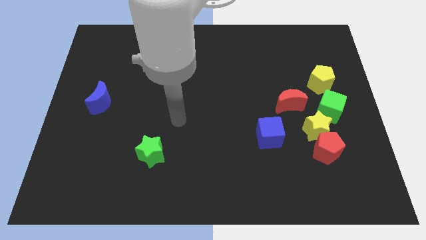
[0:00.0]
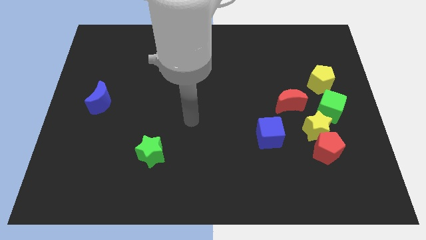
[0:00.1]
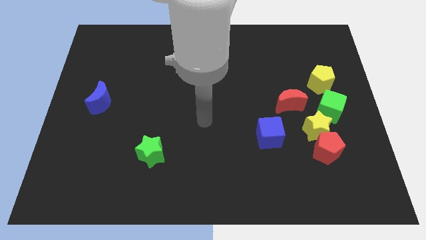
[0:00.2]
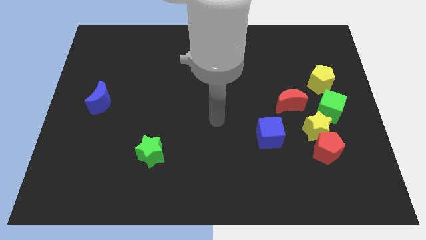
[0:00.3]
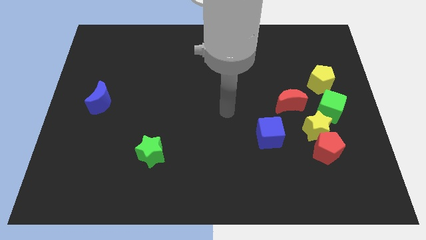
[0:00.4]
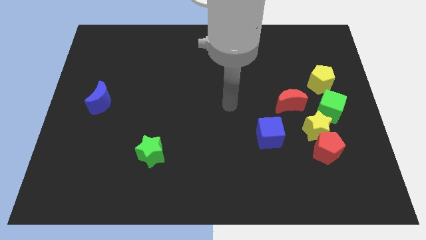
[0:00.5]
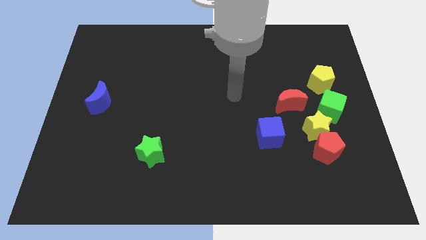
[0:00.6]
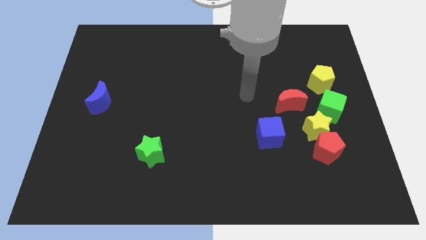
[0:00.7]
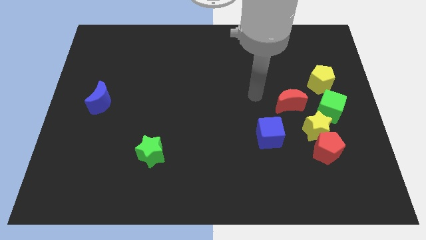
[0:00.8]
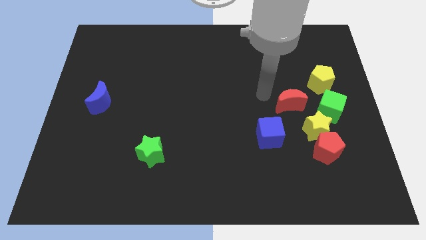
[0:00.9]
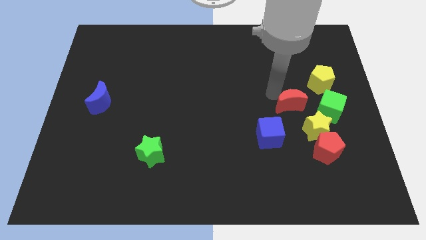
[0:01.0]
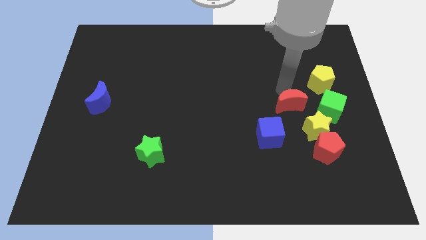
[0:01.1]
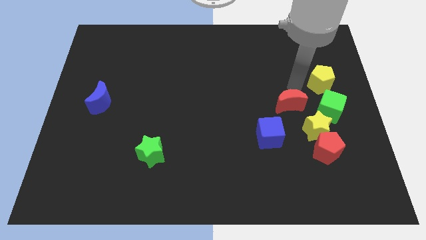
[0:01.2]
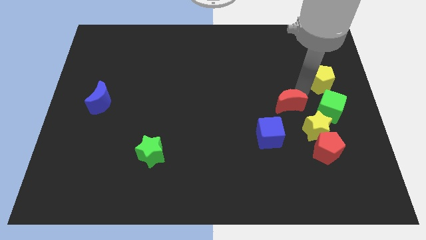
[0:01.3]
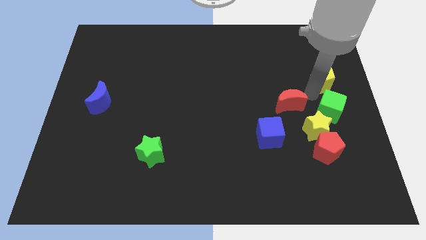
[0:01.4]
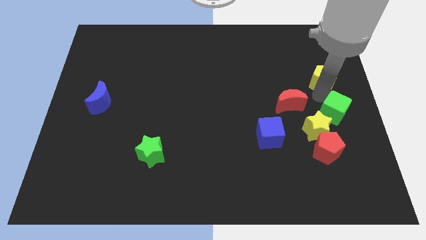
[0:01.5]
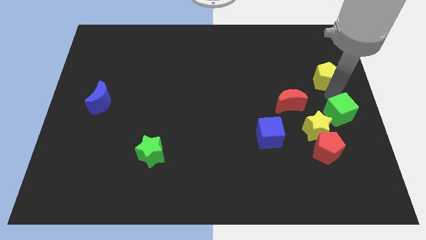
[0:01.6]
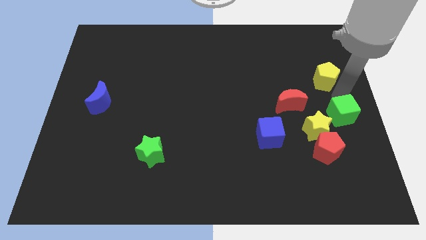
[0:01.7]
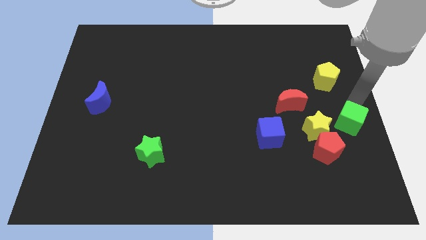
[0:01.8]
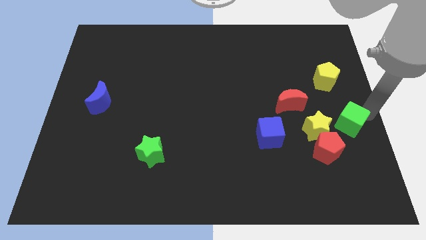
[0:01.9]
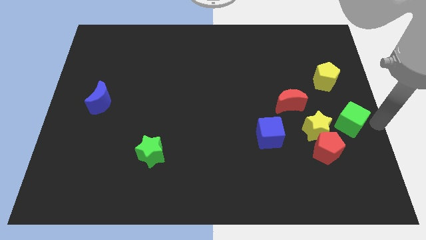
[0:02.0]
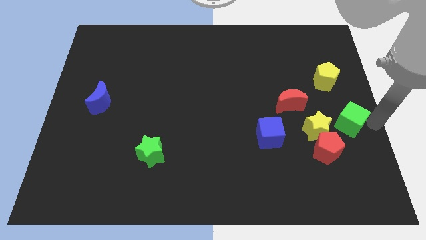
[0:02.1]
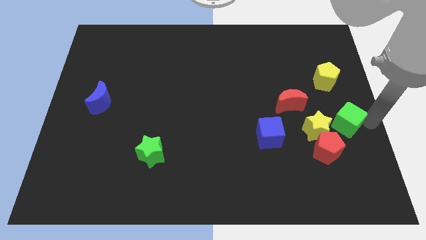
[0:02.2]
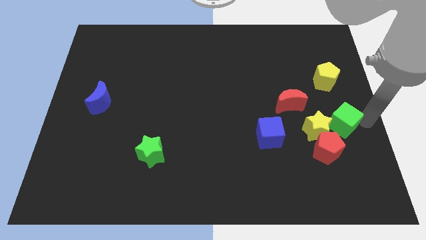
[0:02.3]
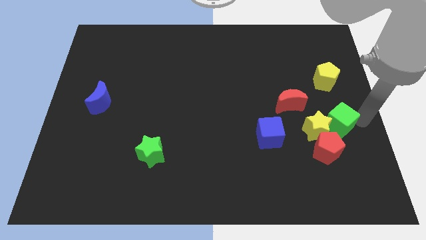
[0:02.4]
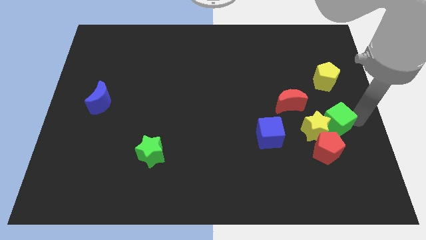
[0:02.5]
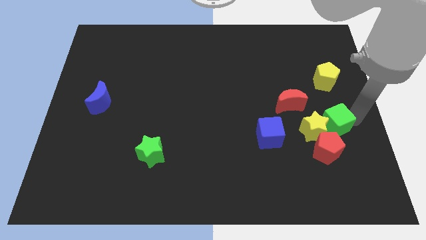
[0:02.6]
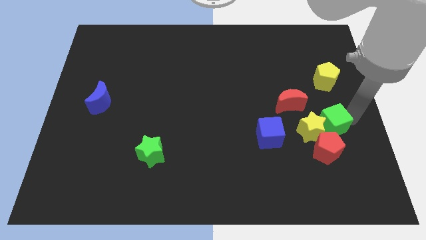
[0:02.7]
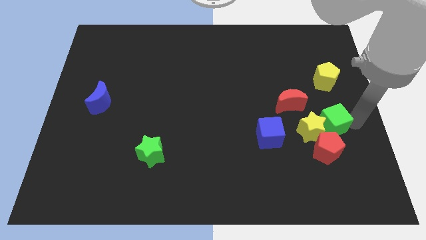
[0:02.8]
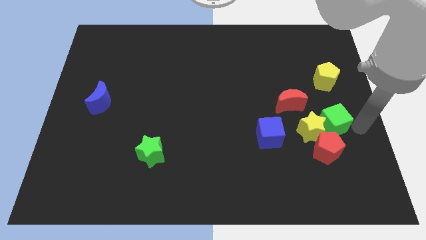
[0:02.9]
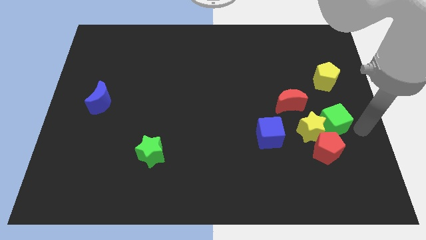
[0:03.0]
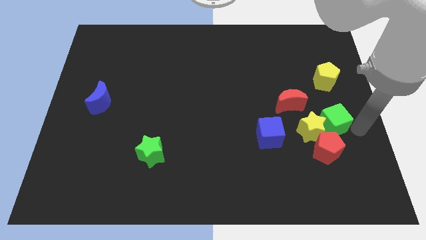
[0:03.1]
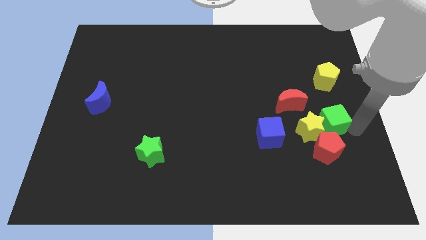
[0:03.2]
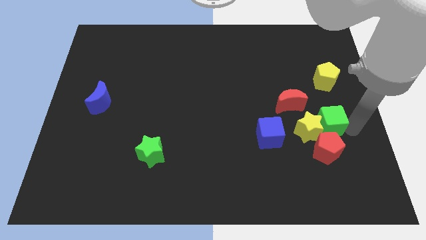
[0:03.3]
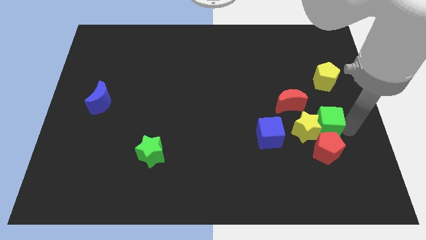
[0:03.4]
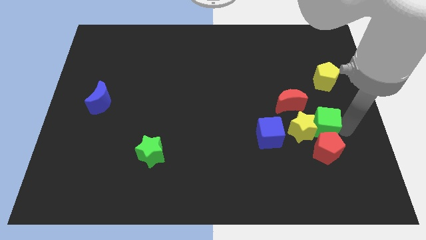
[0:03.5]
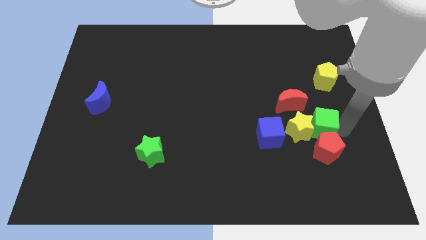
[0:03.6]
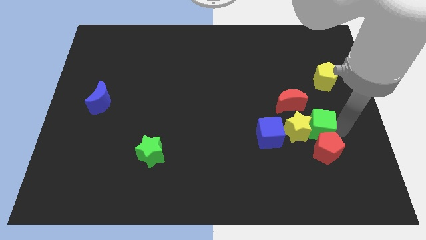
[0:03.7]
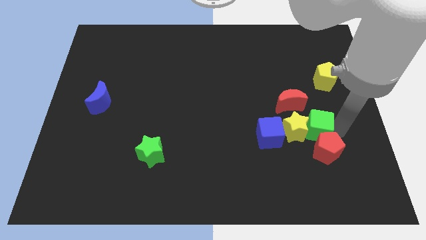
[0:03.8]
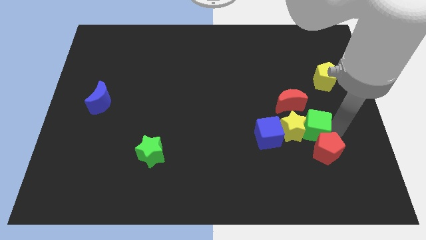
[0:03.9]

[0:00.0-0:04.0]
slide the green cube slightly diagonally down and to the left

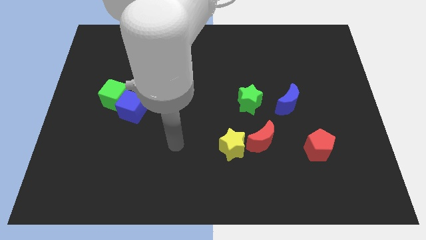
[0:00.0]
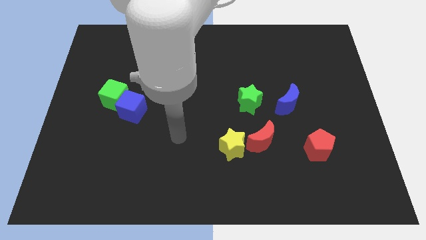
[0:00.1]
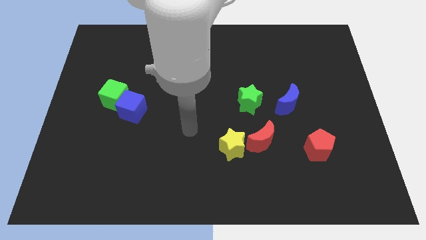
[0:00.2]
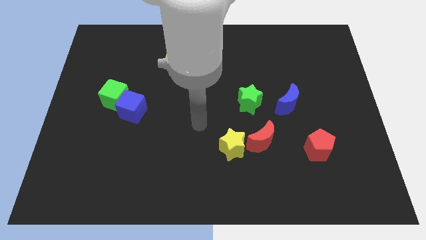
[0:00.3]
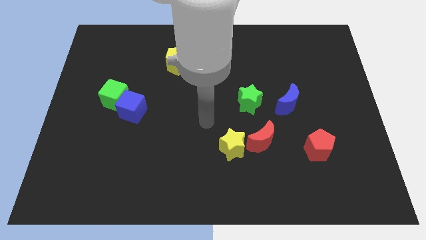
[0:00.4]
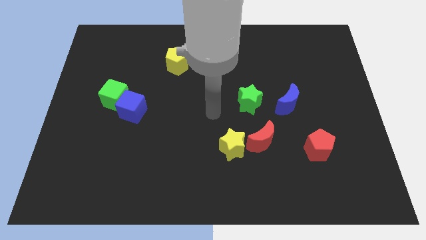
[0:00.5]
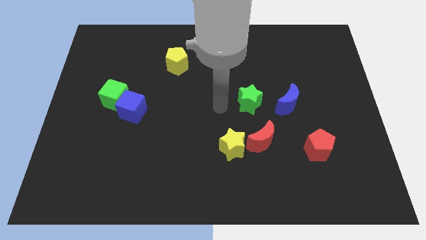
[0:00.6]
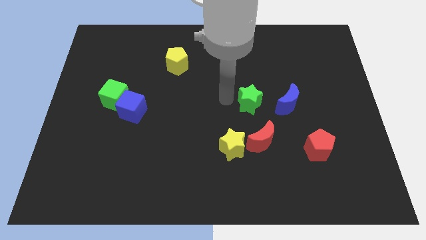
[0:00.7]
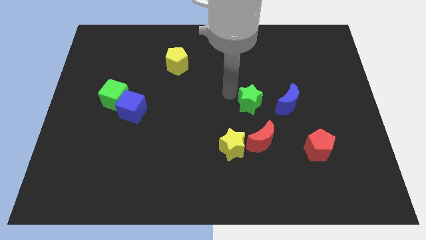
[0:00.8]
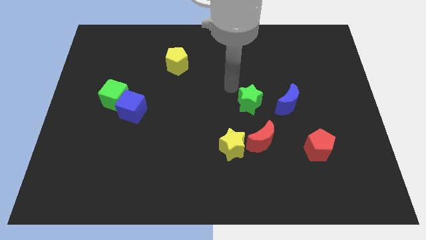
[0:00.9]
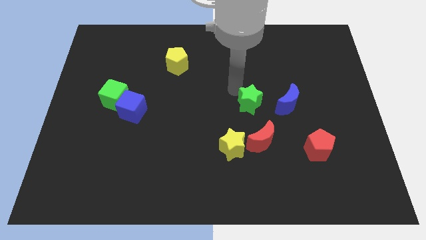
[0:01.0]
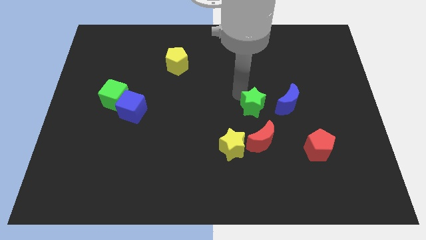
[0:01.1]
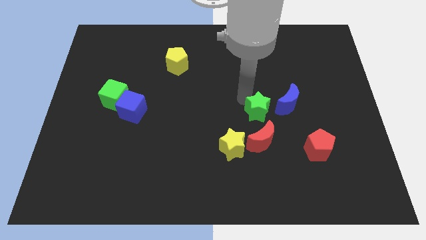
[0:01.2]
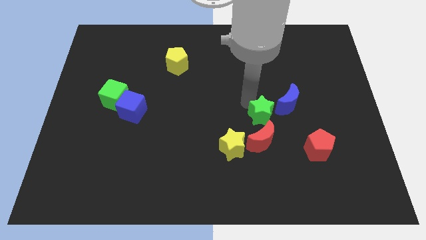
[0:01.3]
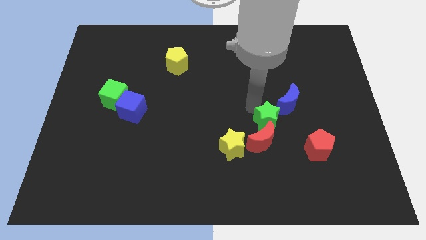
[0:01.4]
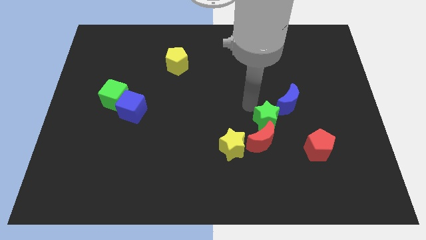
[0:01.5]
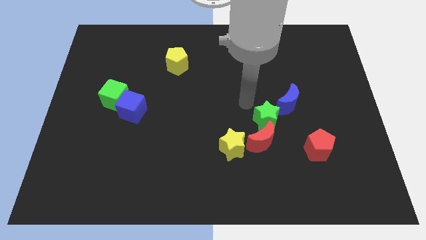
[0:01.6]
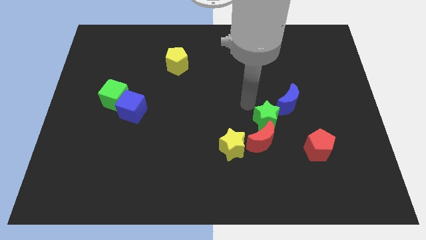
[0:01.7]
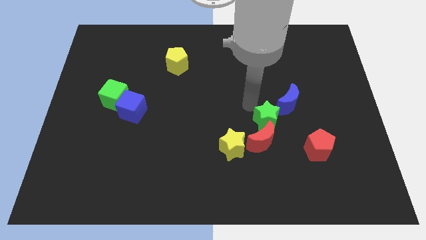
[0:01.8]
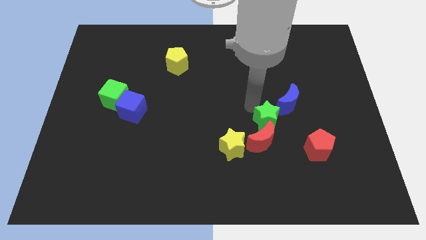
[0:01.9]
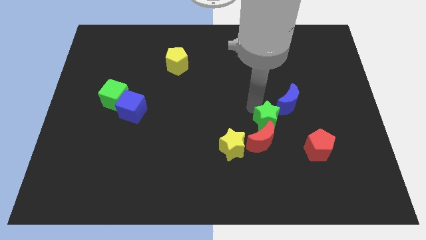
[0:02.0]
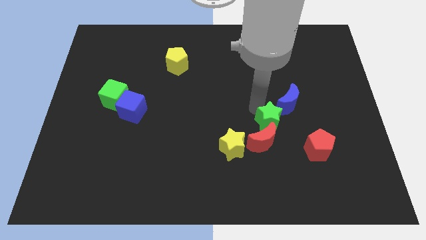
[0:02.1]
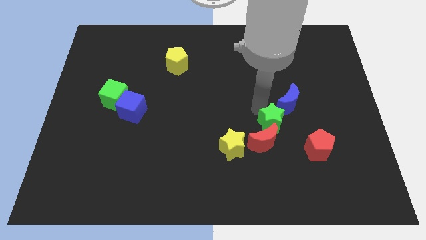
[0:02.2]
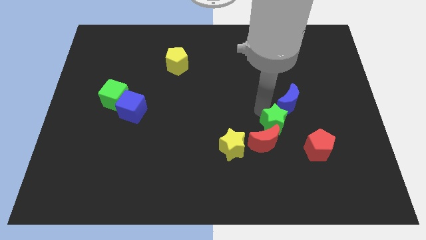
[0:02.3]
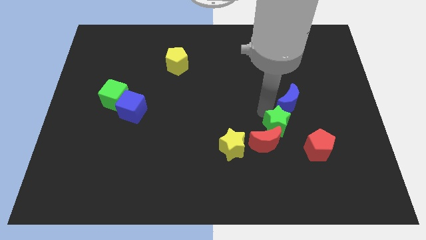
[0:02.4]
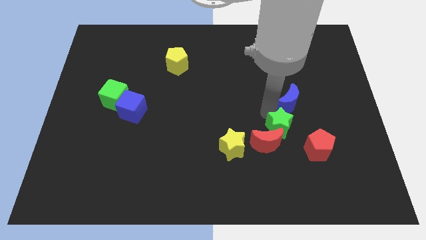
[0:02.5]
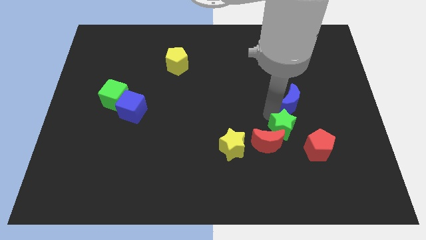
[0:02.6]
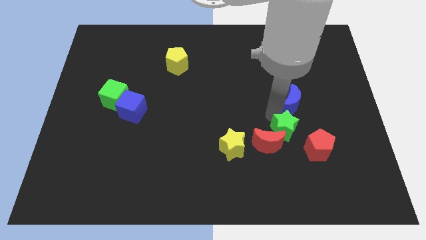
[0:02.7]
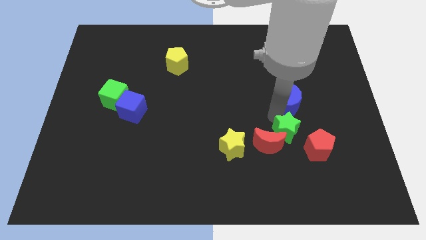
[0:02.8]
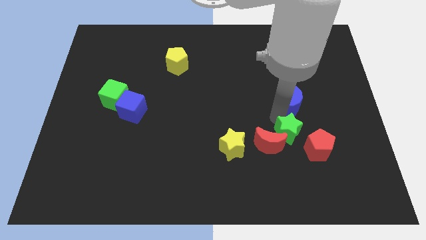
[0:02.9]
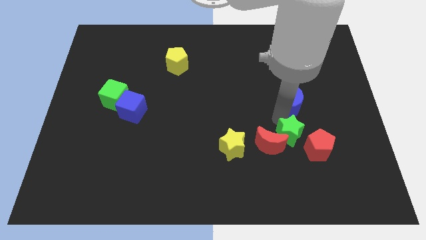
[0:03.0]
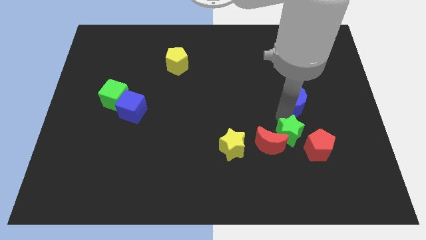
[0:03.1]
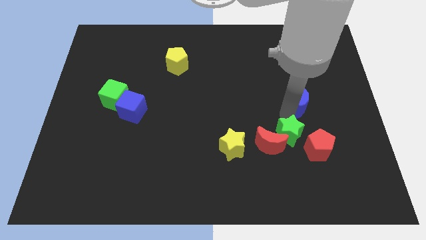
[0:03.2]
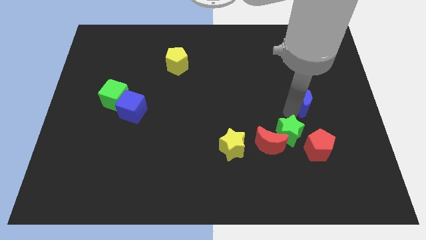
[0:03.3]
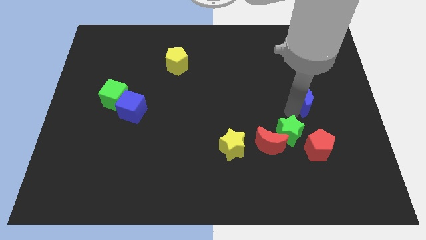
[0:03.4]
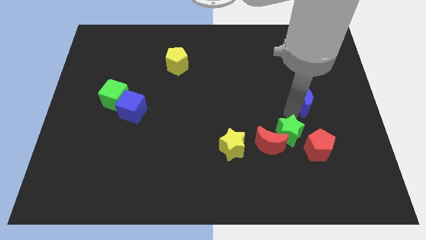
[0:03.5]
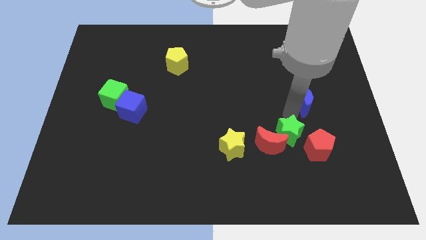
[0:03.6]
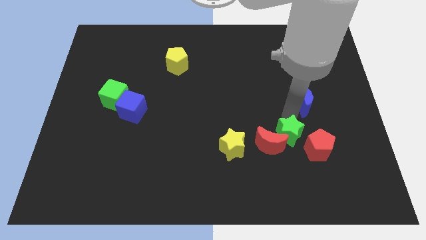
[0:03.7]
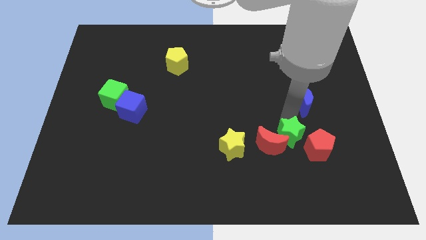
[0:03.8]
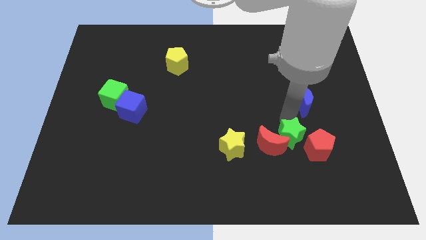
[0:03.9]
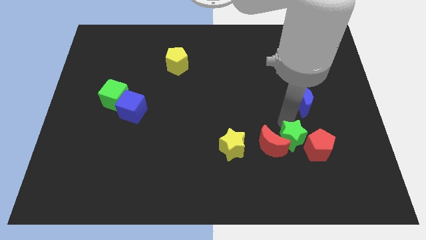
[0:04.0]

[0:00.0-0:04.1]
slightly push the green star downwards

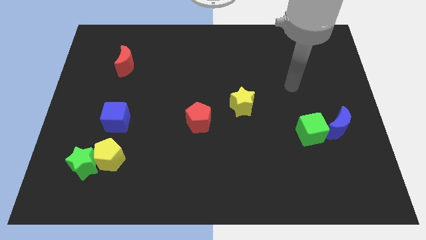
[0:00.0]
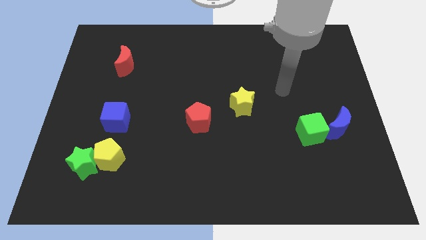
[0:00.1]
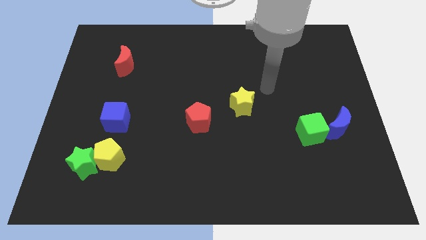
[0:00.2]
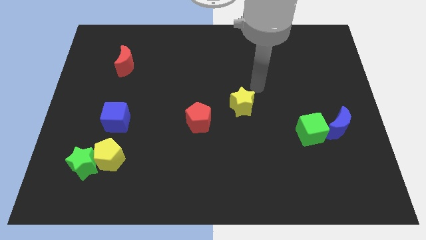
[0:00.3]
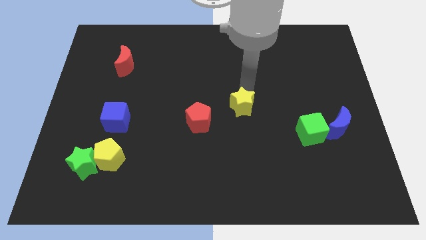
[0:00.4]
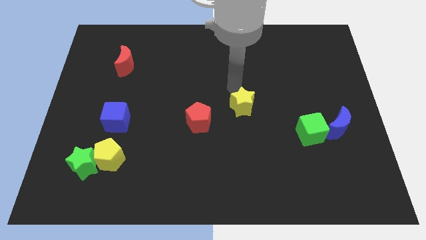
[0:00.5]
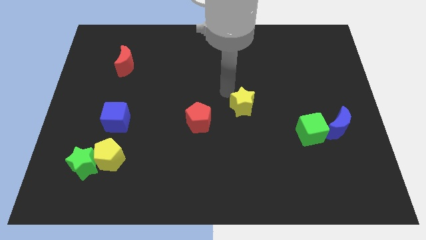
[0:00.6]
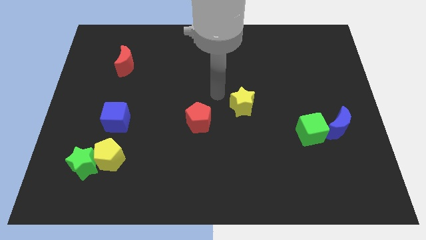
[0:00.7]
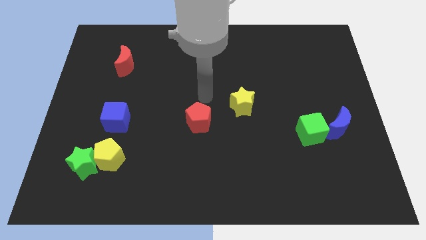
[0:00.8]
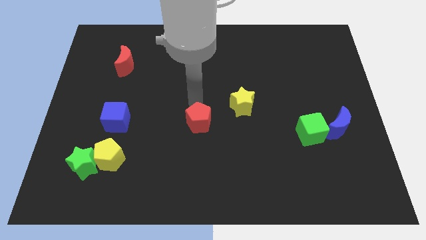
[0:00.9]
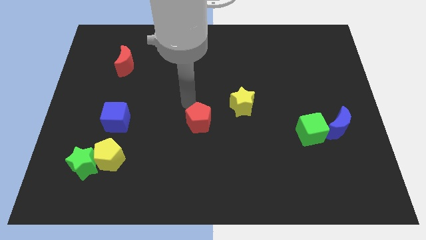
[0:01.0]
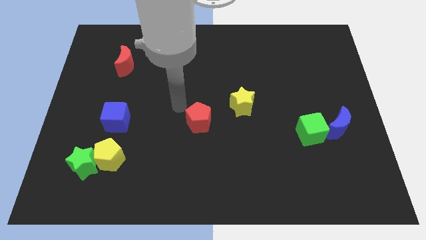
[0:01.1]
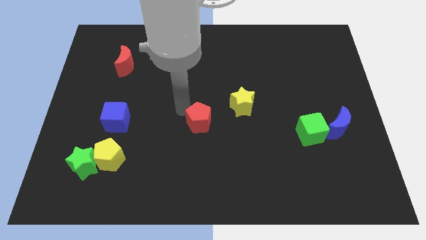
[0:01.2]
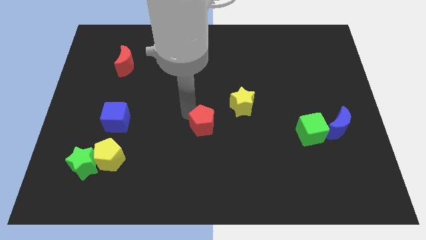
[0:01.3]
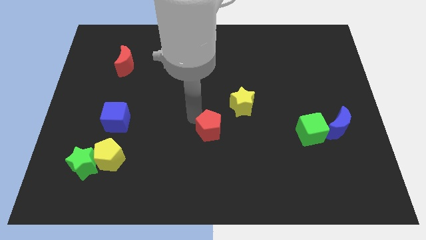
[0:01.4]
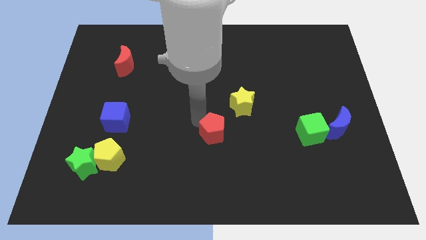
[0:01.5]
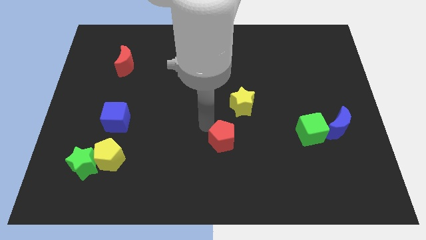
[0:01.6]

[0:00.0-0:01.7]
move the red pentagon a bit downwards and right diagonally
